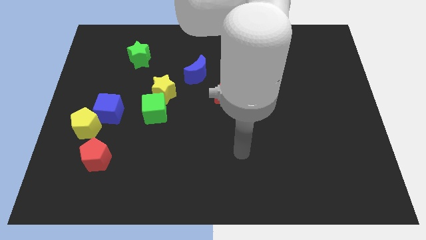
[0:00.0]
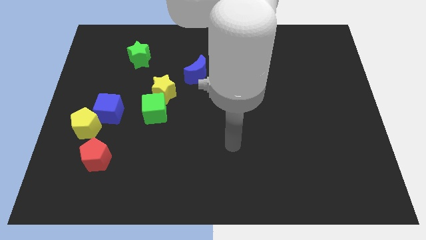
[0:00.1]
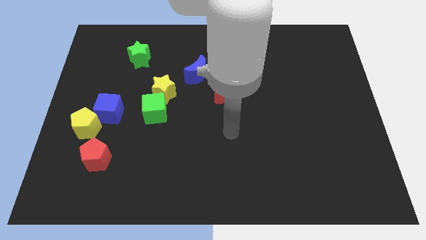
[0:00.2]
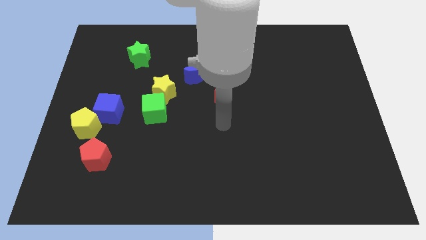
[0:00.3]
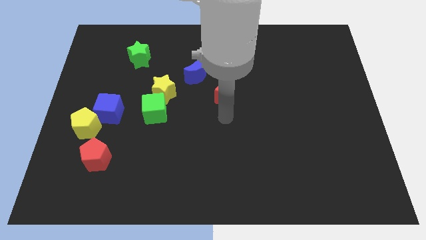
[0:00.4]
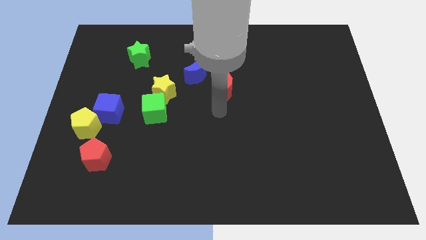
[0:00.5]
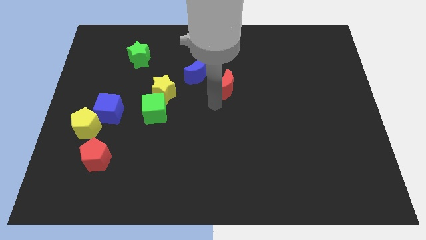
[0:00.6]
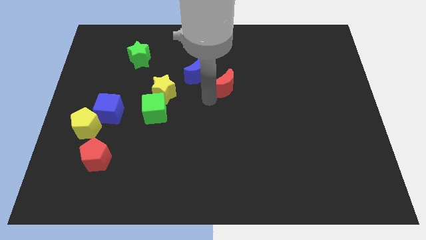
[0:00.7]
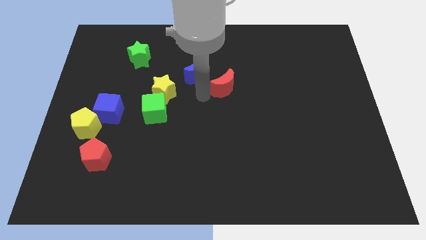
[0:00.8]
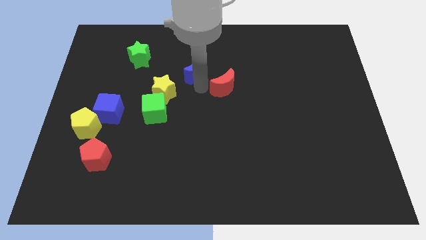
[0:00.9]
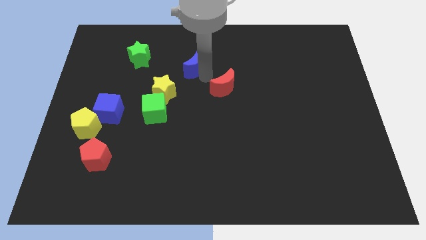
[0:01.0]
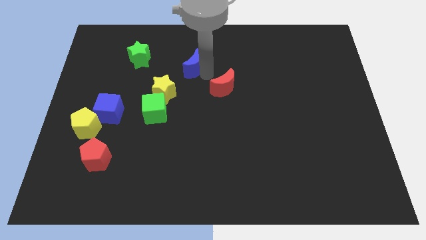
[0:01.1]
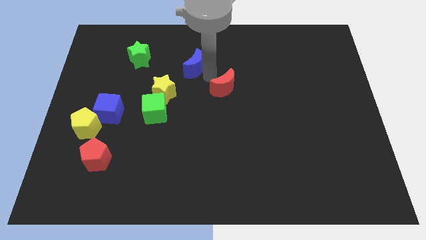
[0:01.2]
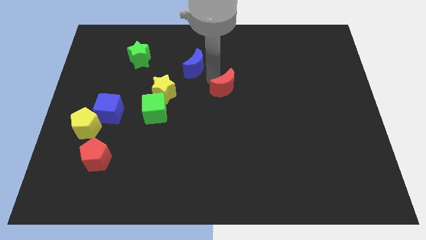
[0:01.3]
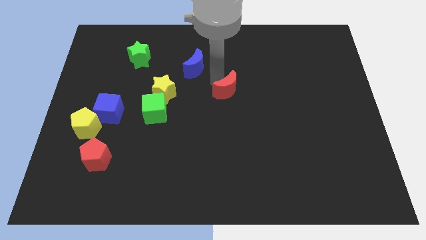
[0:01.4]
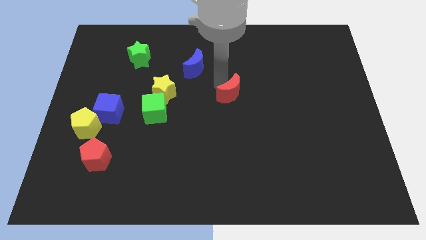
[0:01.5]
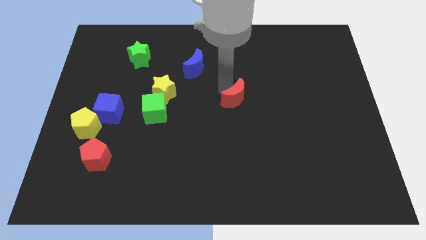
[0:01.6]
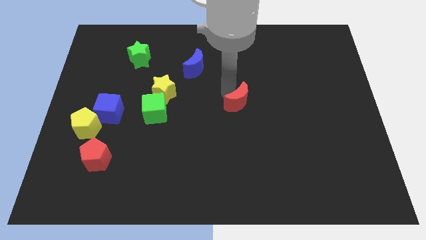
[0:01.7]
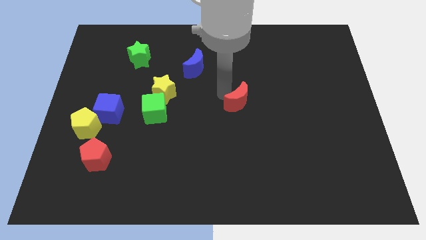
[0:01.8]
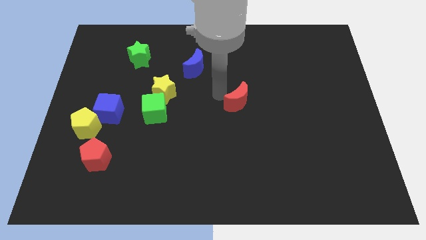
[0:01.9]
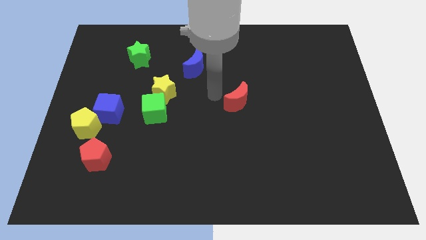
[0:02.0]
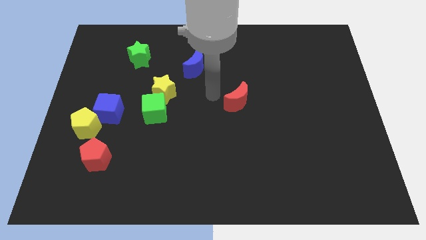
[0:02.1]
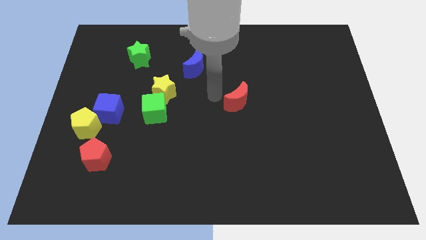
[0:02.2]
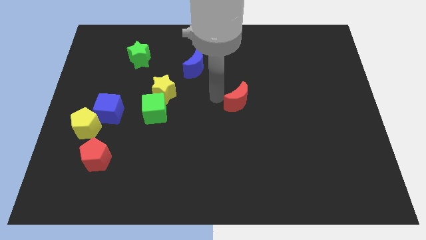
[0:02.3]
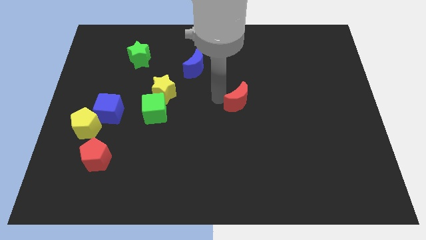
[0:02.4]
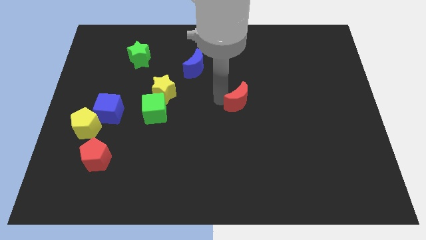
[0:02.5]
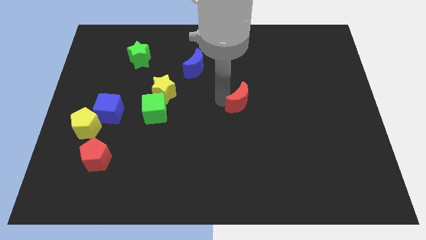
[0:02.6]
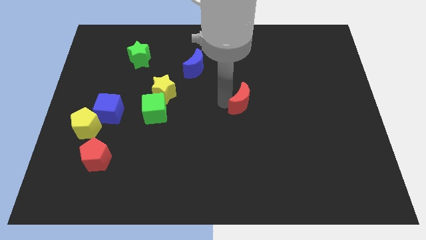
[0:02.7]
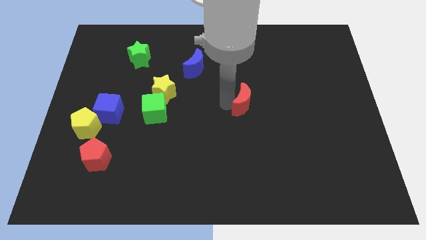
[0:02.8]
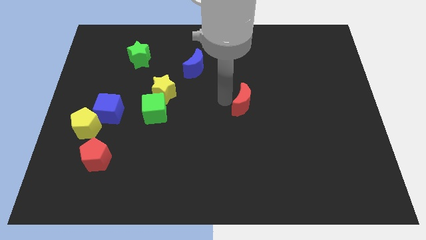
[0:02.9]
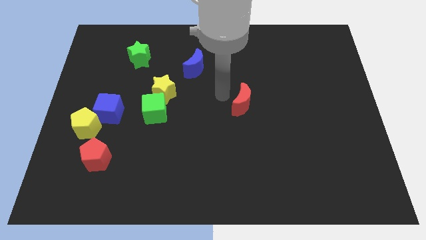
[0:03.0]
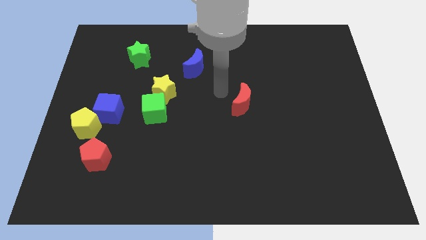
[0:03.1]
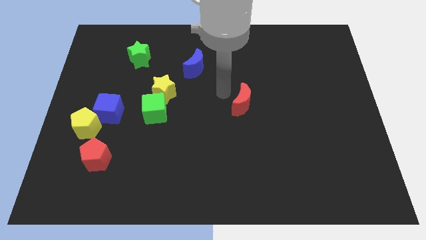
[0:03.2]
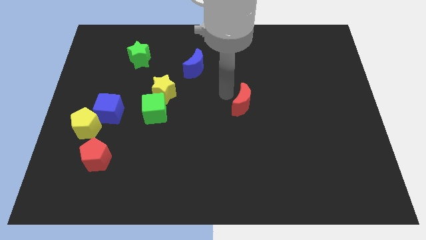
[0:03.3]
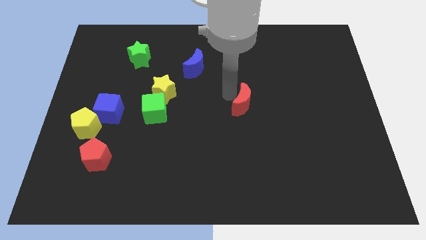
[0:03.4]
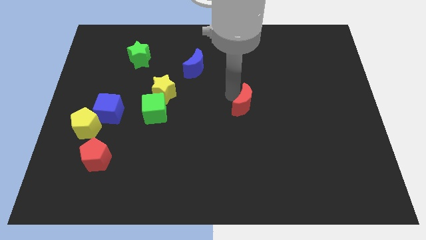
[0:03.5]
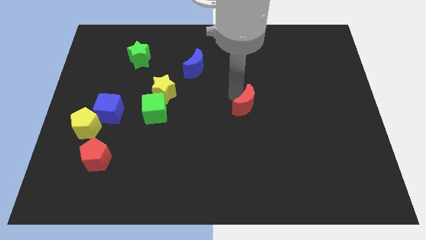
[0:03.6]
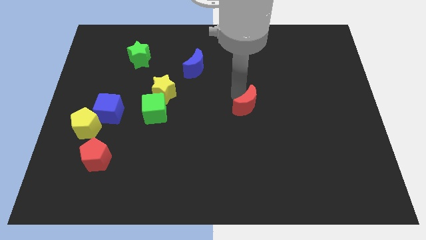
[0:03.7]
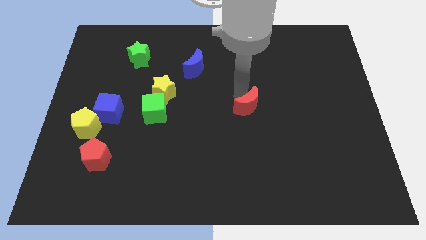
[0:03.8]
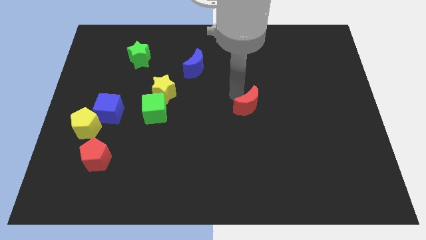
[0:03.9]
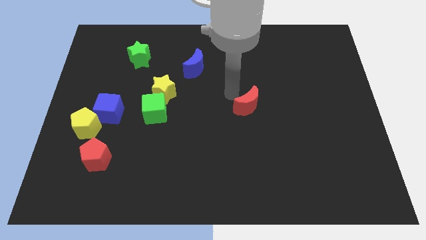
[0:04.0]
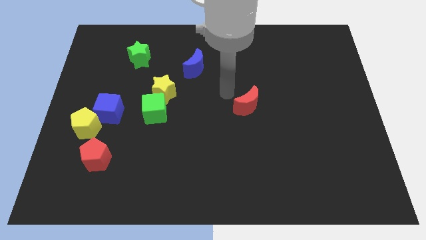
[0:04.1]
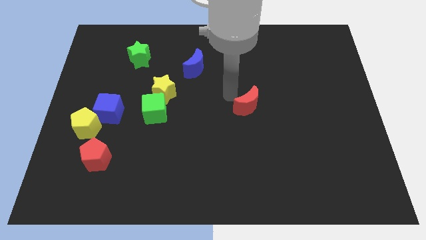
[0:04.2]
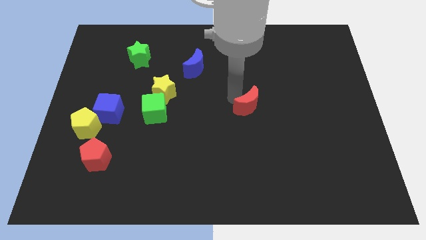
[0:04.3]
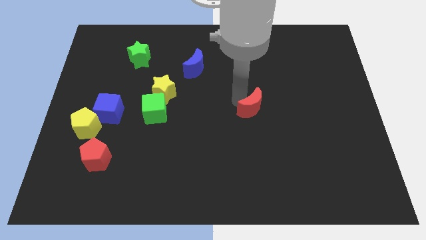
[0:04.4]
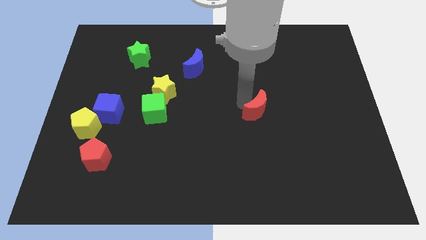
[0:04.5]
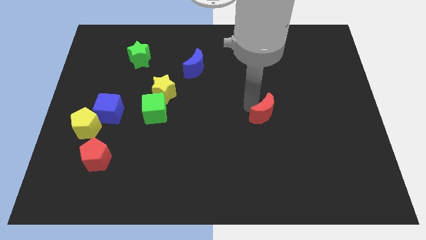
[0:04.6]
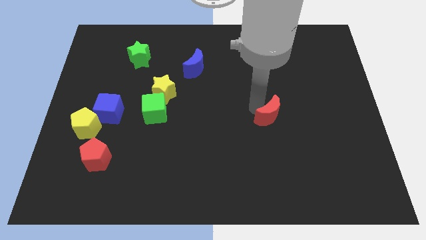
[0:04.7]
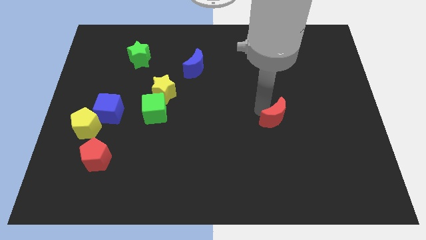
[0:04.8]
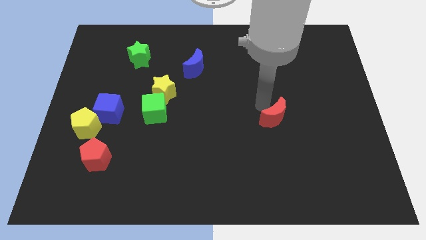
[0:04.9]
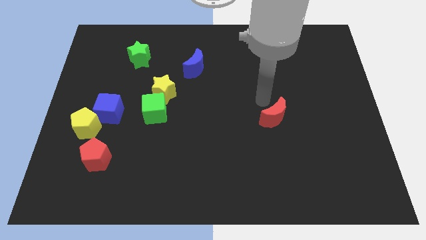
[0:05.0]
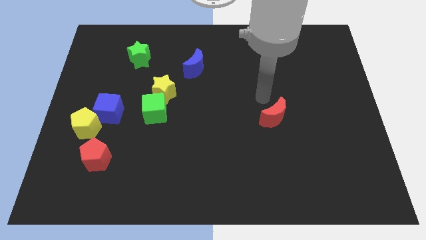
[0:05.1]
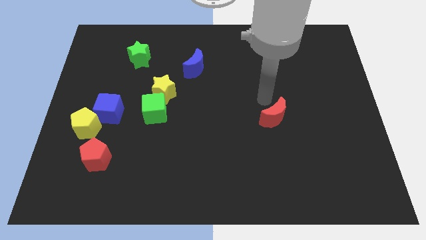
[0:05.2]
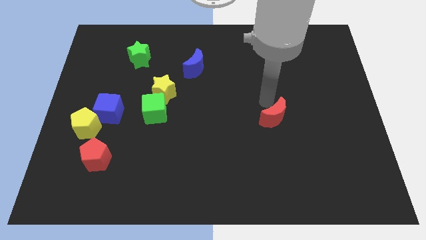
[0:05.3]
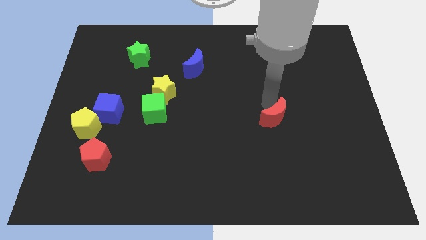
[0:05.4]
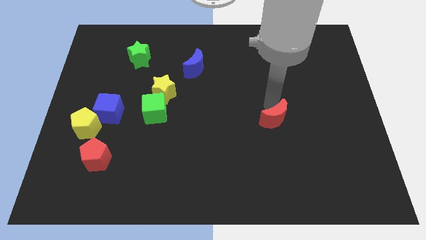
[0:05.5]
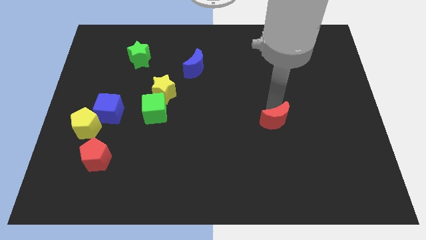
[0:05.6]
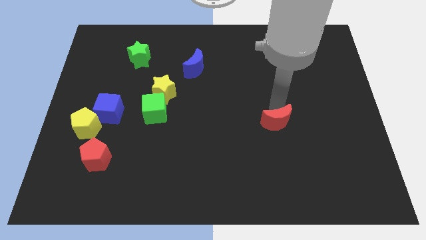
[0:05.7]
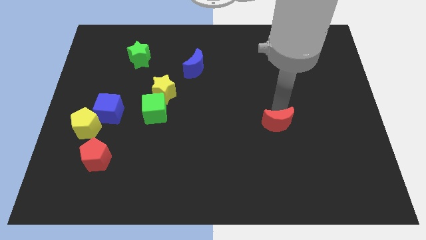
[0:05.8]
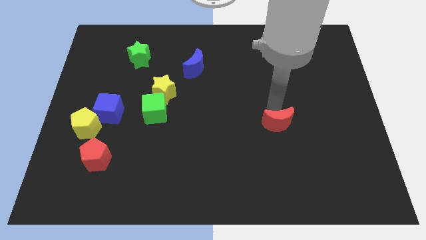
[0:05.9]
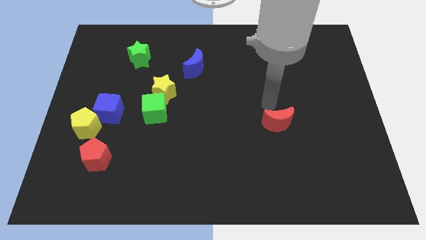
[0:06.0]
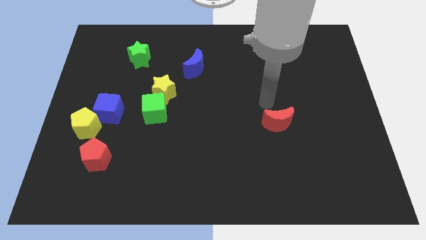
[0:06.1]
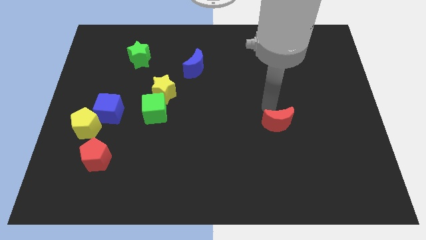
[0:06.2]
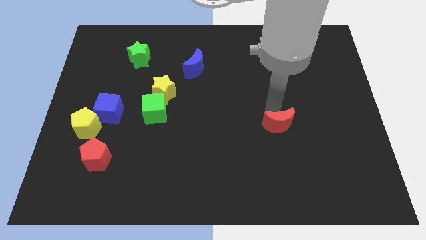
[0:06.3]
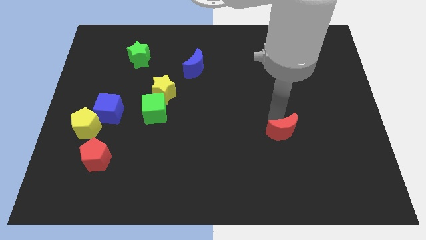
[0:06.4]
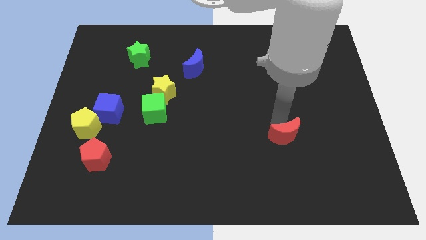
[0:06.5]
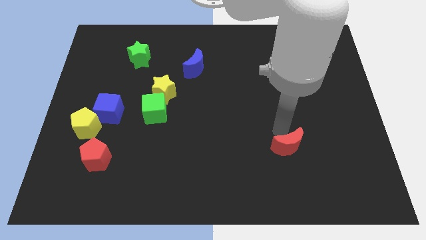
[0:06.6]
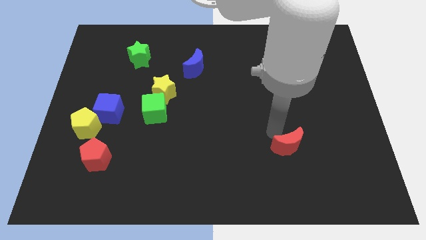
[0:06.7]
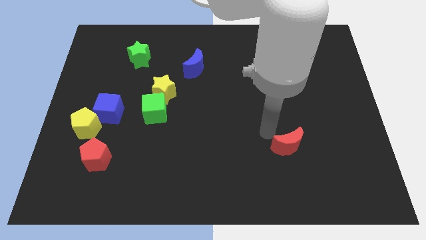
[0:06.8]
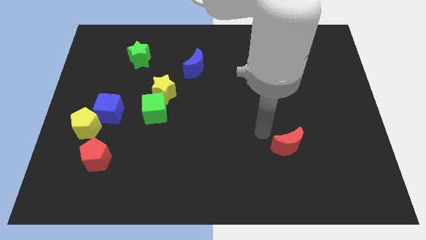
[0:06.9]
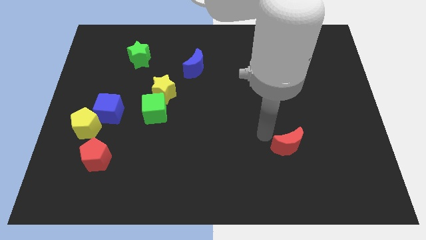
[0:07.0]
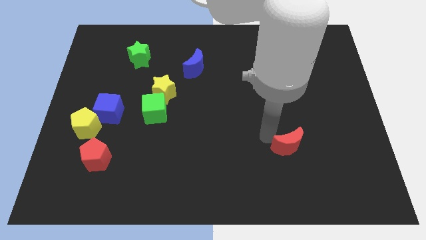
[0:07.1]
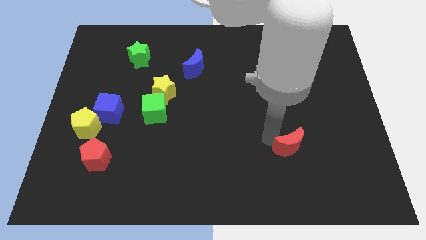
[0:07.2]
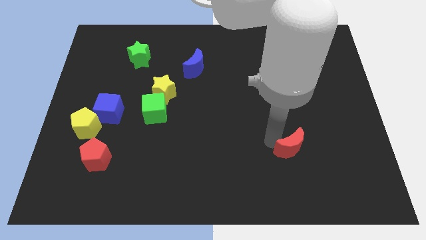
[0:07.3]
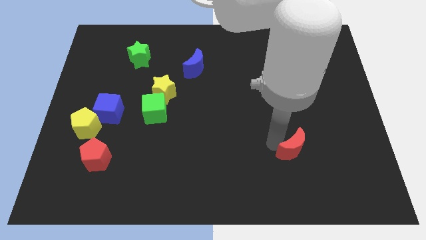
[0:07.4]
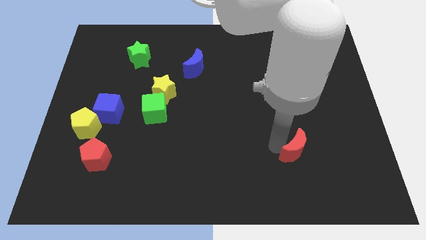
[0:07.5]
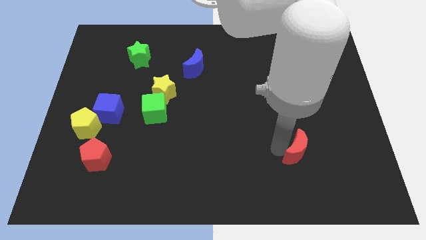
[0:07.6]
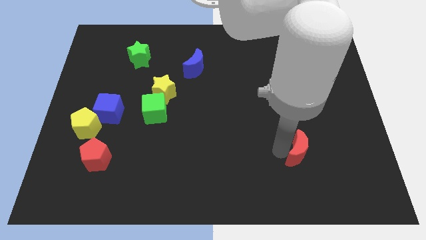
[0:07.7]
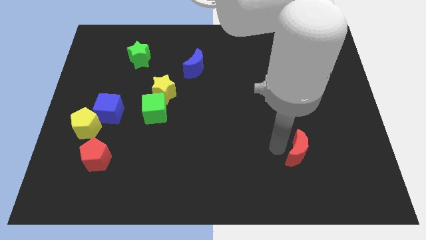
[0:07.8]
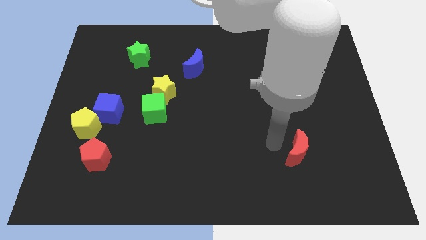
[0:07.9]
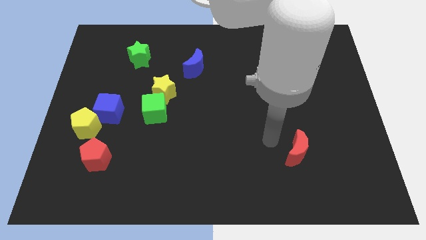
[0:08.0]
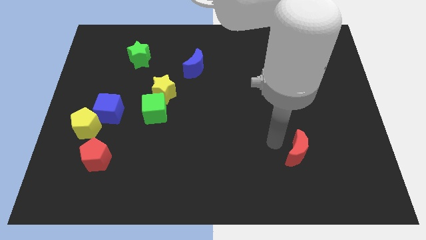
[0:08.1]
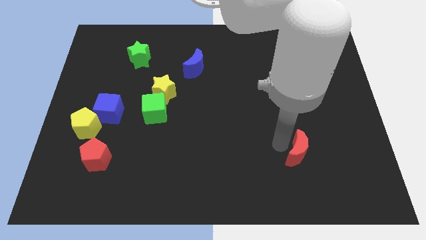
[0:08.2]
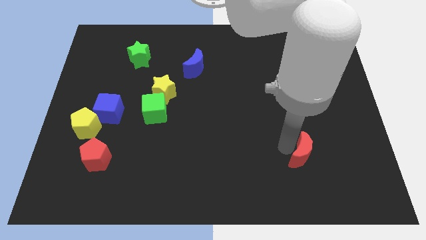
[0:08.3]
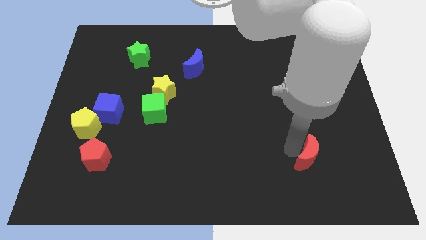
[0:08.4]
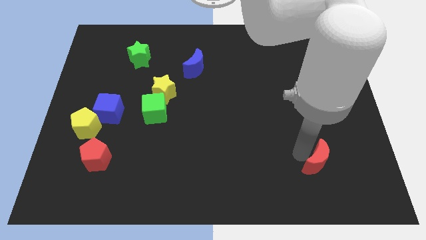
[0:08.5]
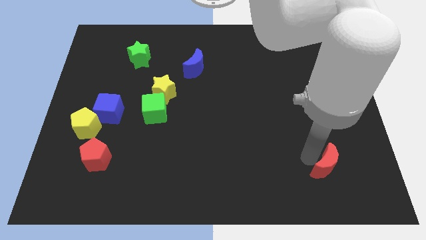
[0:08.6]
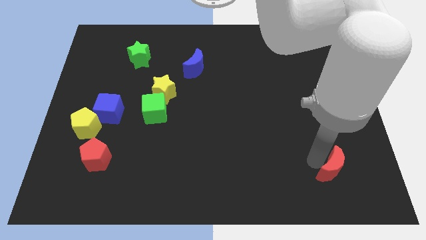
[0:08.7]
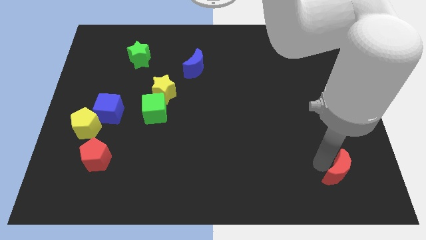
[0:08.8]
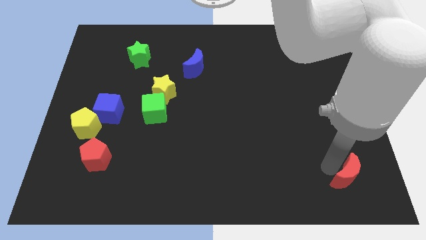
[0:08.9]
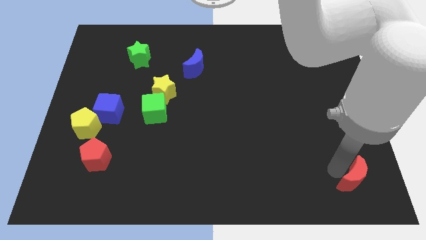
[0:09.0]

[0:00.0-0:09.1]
move the red moon to the bottom right of the board
